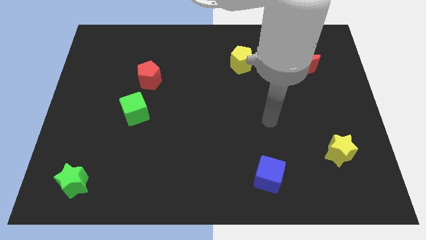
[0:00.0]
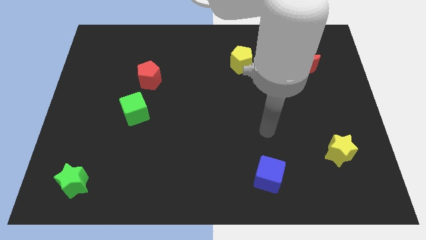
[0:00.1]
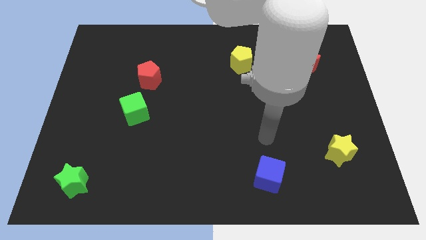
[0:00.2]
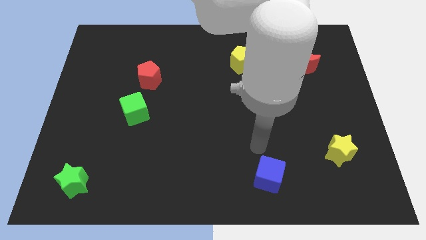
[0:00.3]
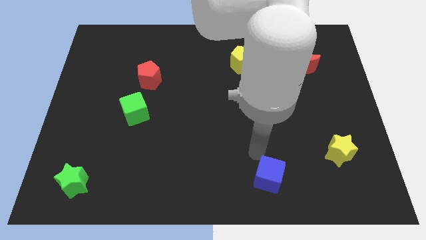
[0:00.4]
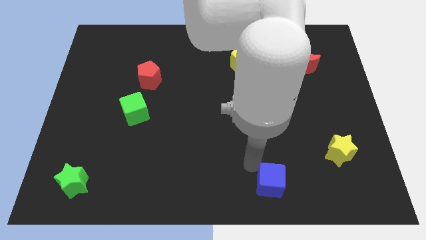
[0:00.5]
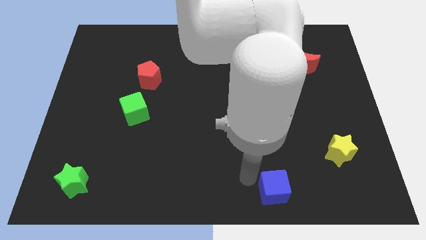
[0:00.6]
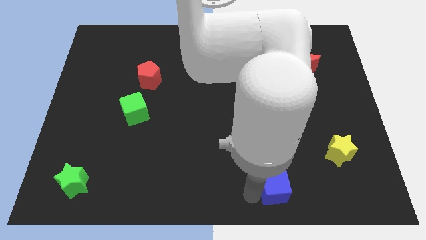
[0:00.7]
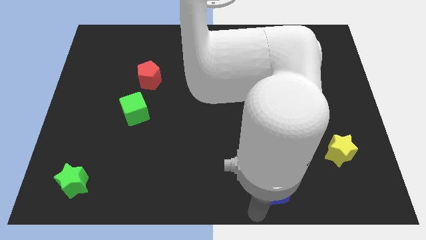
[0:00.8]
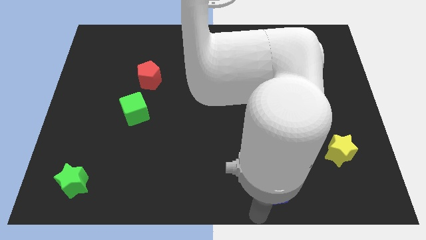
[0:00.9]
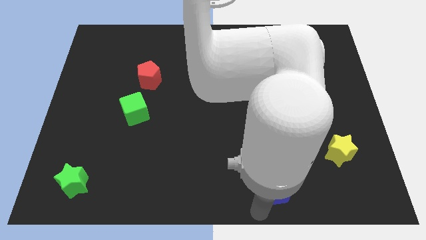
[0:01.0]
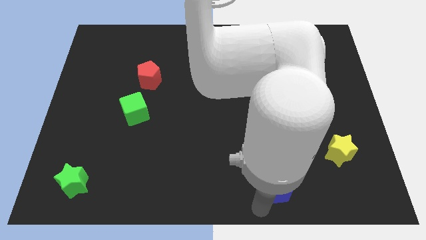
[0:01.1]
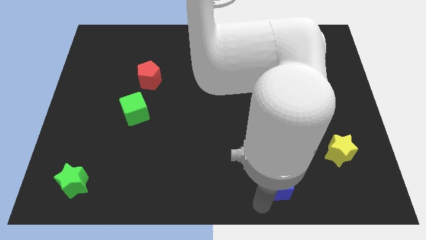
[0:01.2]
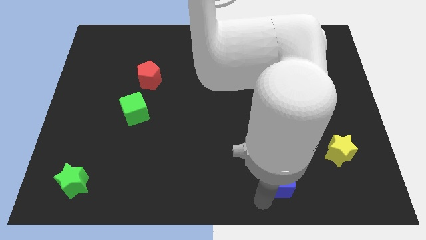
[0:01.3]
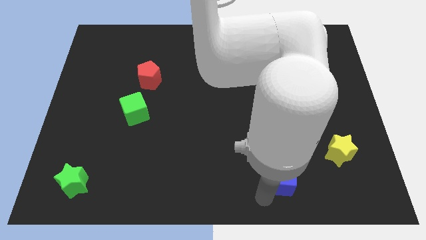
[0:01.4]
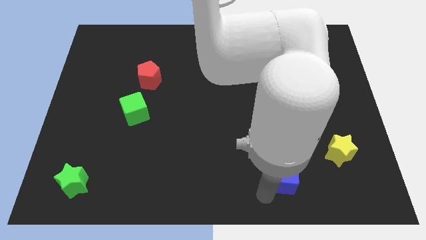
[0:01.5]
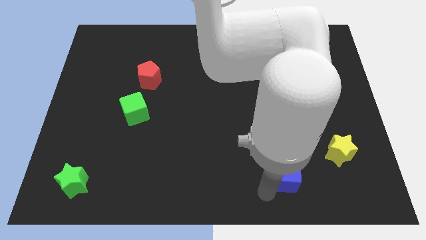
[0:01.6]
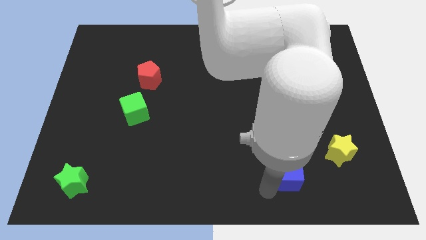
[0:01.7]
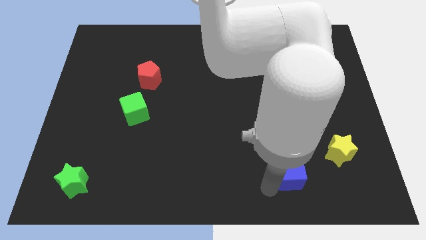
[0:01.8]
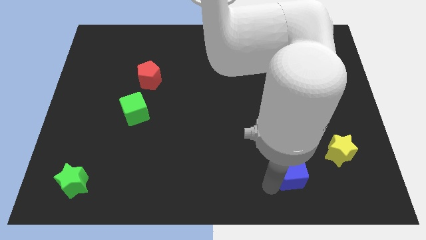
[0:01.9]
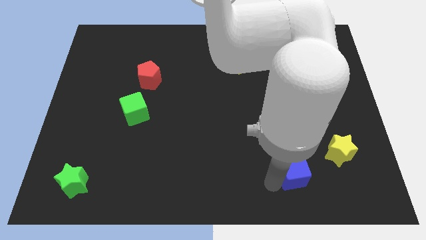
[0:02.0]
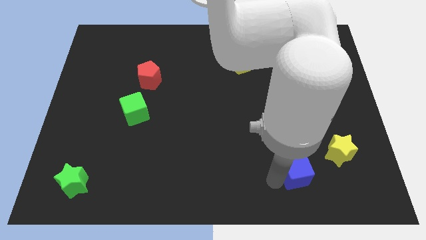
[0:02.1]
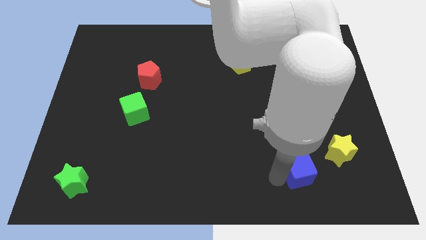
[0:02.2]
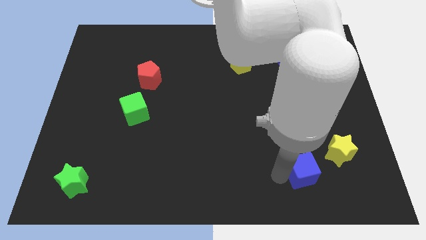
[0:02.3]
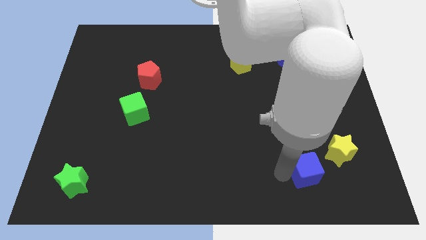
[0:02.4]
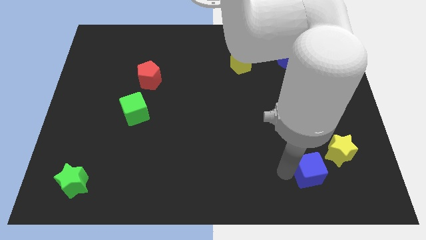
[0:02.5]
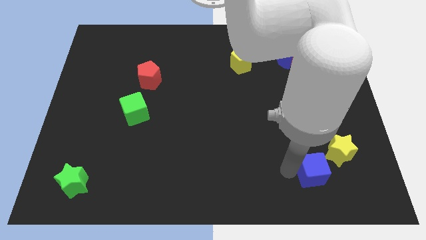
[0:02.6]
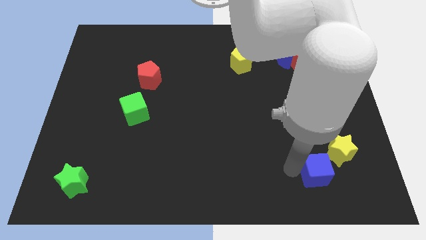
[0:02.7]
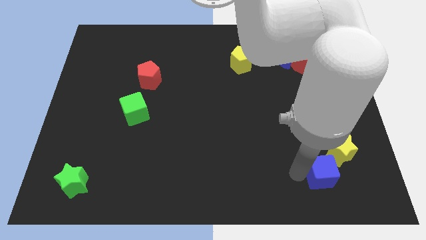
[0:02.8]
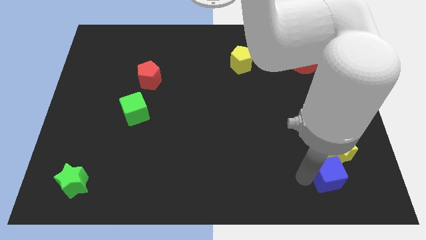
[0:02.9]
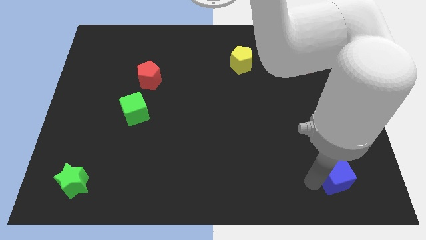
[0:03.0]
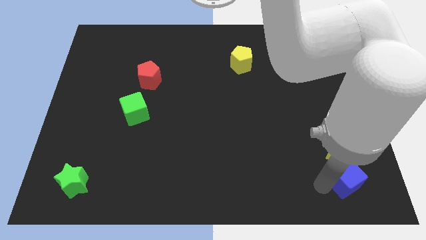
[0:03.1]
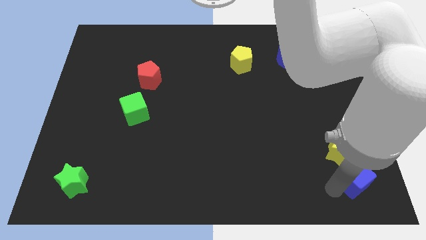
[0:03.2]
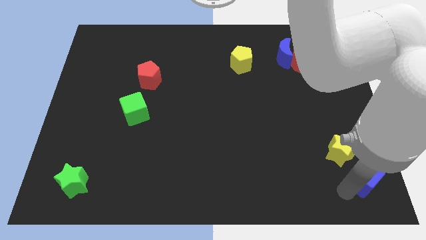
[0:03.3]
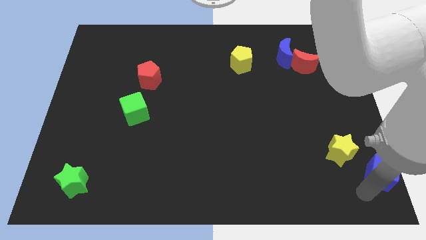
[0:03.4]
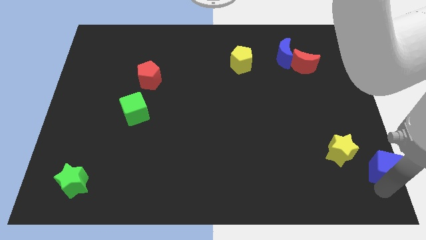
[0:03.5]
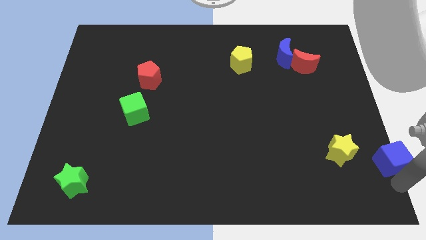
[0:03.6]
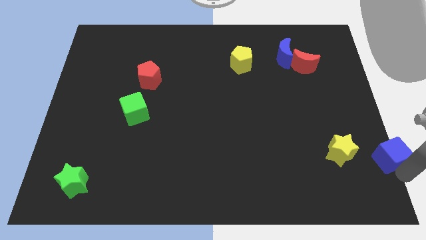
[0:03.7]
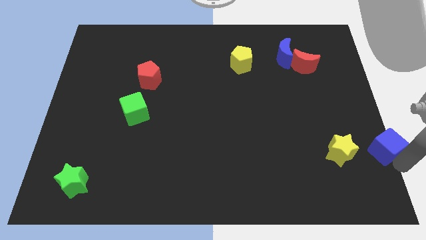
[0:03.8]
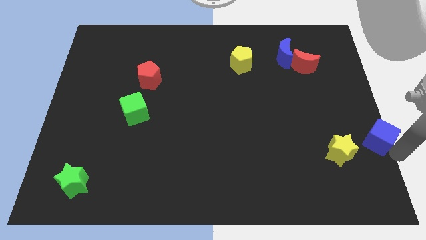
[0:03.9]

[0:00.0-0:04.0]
move the blue cube diagonally upwards and right a bit

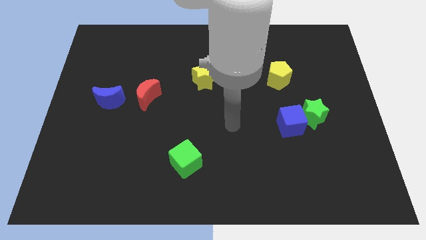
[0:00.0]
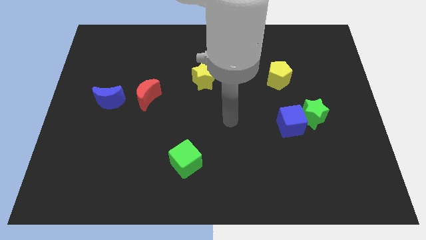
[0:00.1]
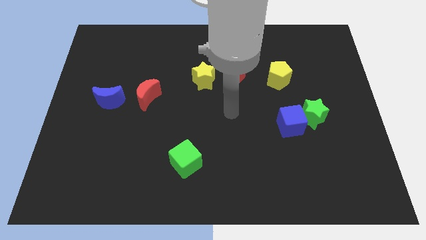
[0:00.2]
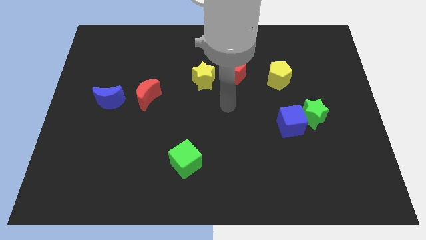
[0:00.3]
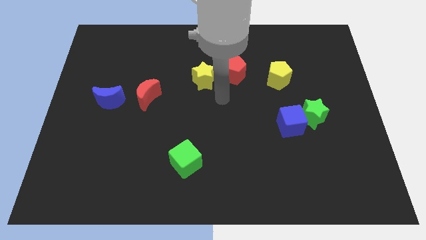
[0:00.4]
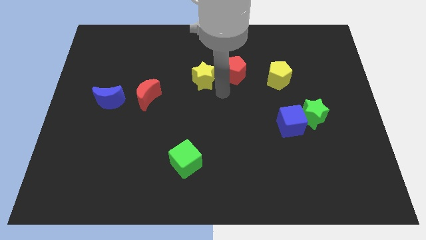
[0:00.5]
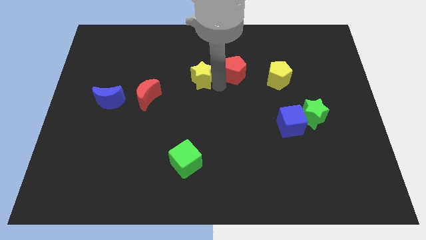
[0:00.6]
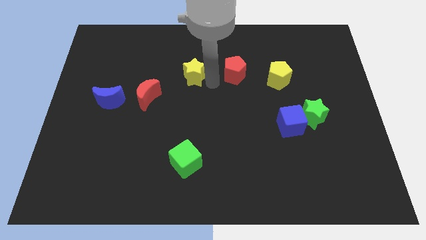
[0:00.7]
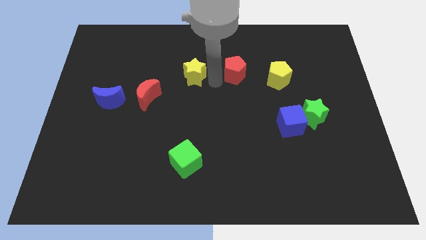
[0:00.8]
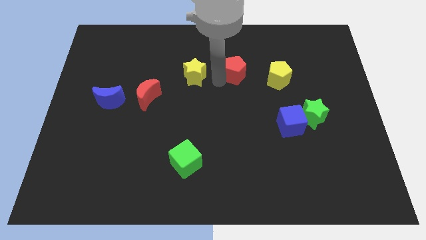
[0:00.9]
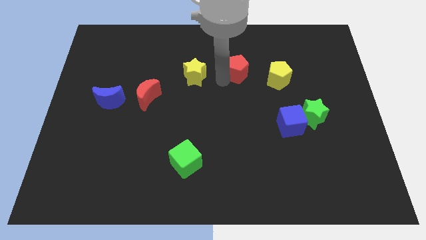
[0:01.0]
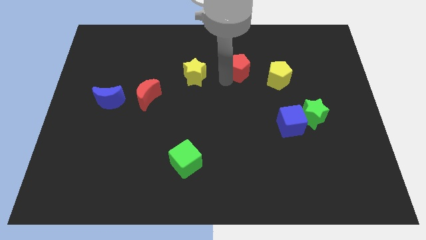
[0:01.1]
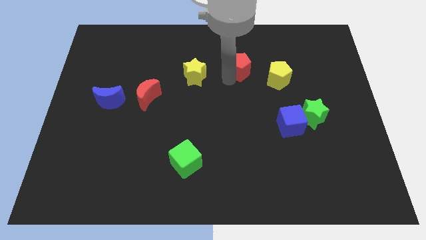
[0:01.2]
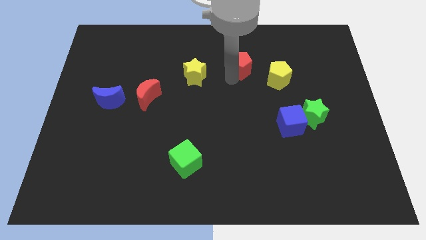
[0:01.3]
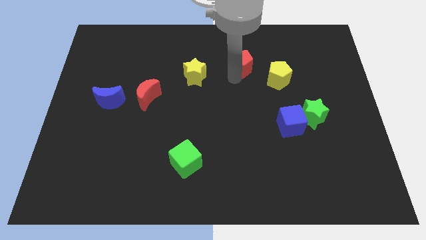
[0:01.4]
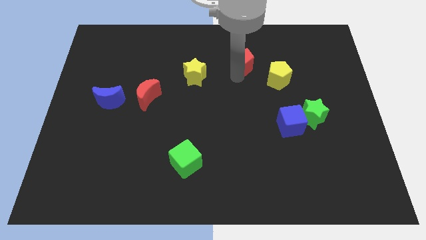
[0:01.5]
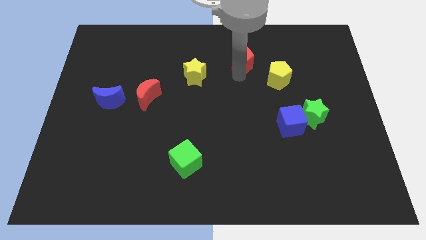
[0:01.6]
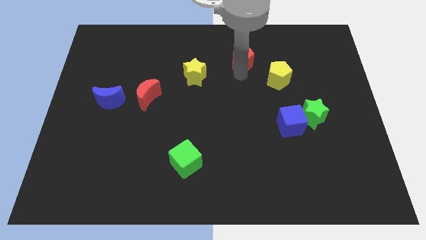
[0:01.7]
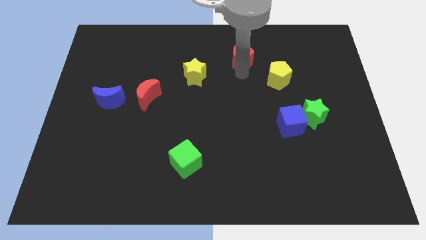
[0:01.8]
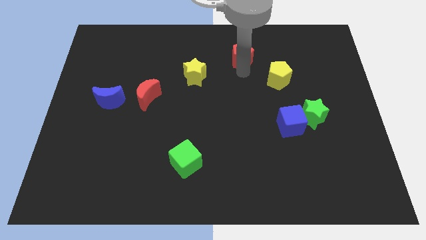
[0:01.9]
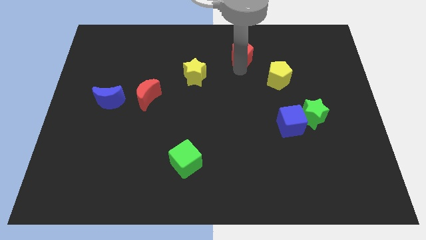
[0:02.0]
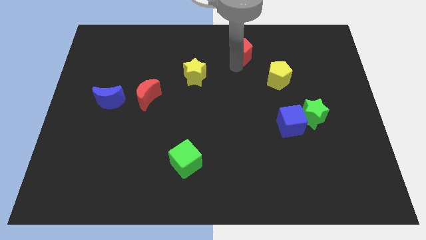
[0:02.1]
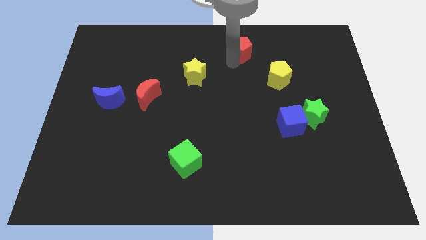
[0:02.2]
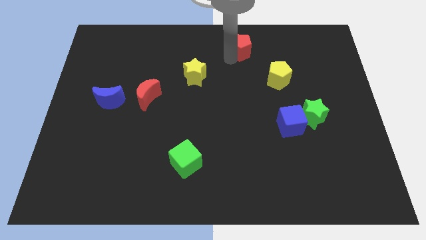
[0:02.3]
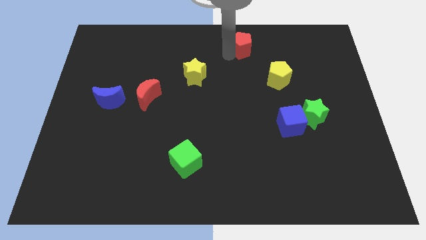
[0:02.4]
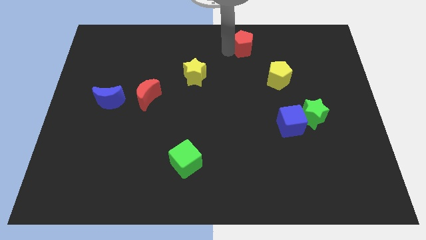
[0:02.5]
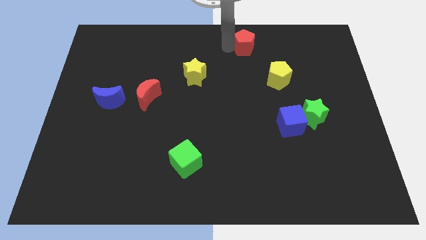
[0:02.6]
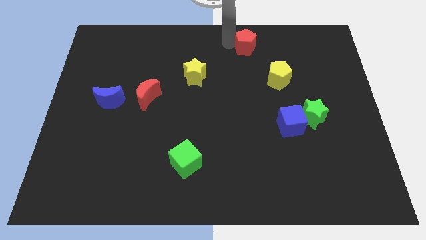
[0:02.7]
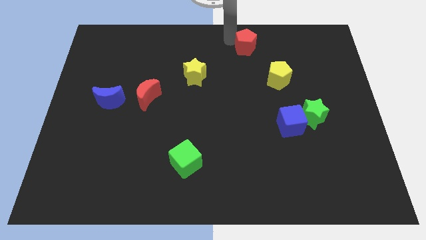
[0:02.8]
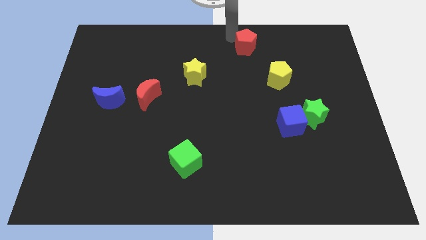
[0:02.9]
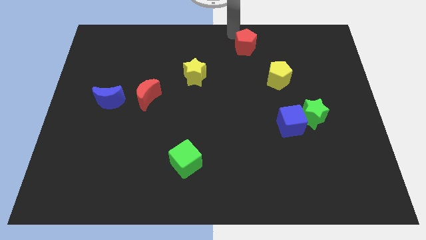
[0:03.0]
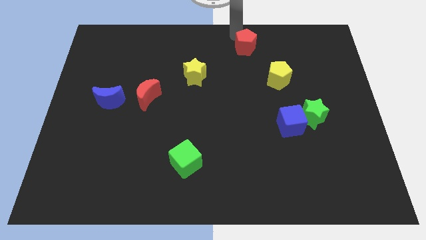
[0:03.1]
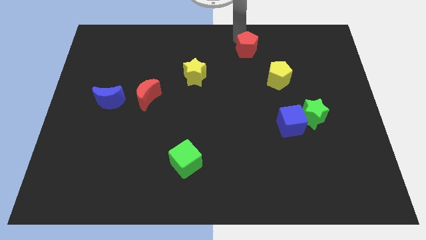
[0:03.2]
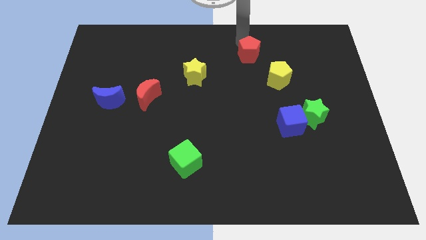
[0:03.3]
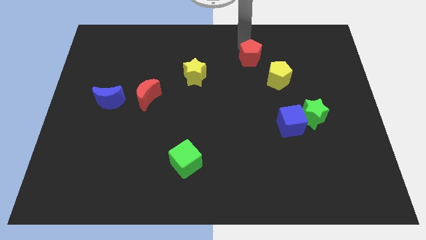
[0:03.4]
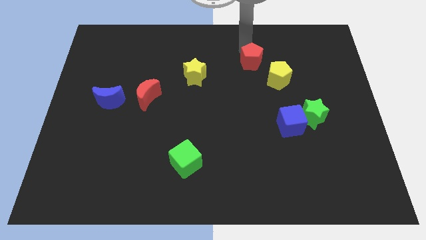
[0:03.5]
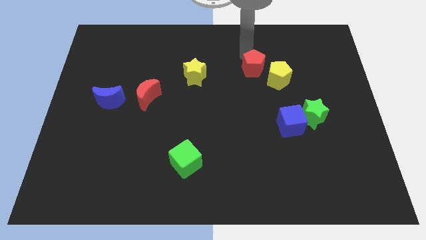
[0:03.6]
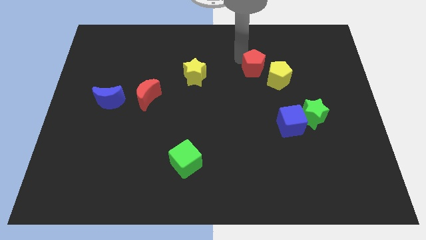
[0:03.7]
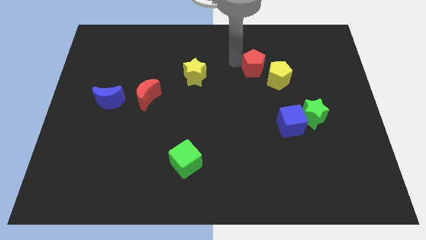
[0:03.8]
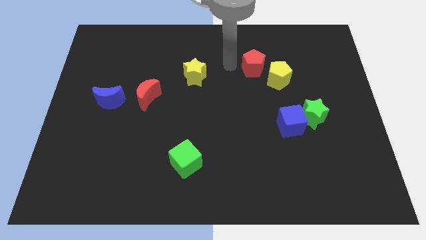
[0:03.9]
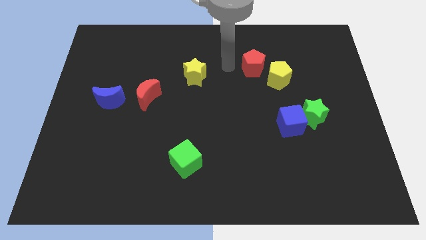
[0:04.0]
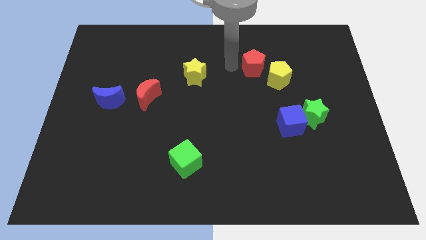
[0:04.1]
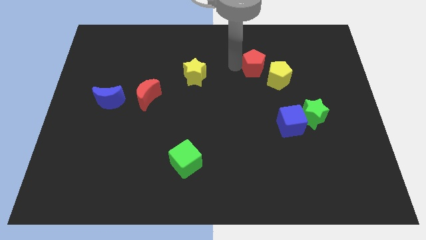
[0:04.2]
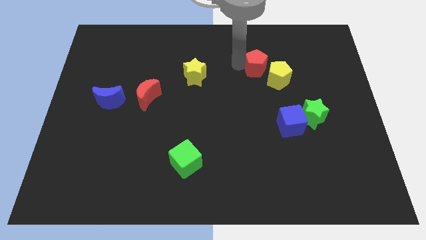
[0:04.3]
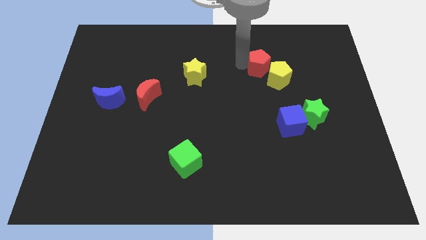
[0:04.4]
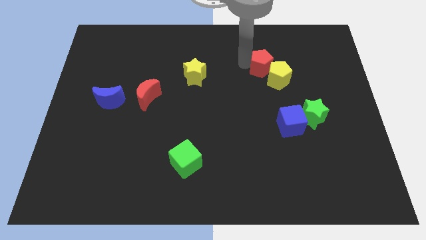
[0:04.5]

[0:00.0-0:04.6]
move the red pentagon to the right somewhat
